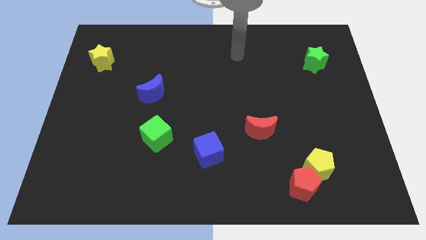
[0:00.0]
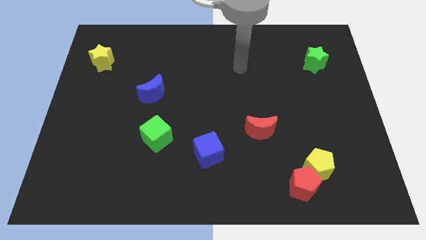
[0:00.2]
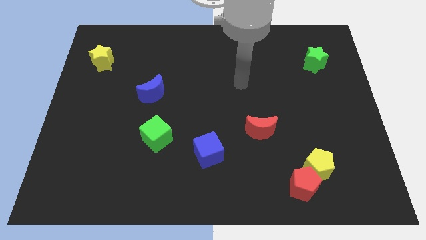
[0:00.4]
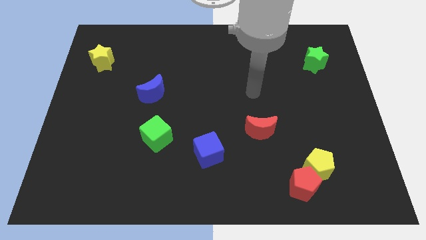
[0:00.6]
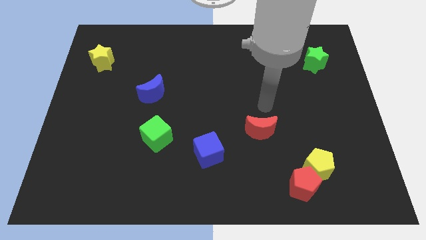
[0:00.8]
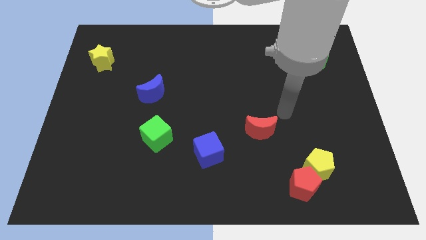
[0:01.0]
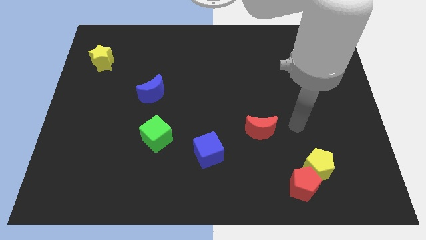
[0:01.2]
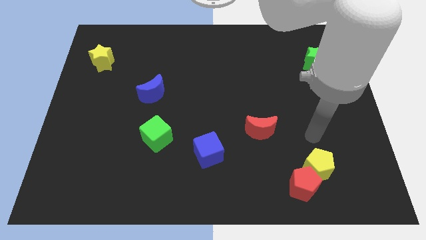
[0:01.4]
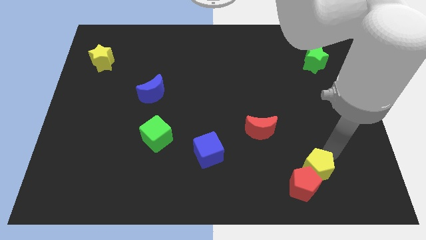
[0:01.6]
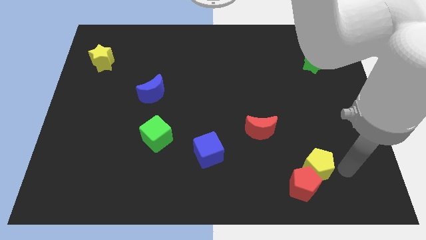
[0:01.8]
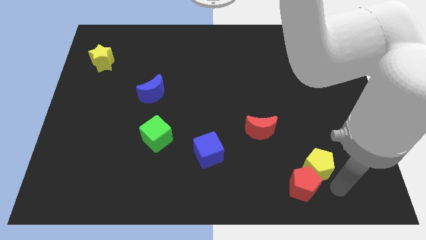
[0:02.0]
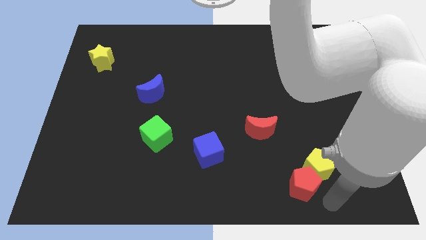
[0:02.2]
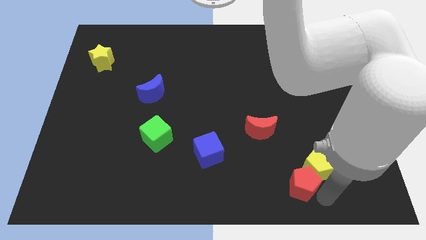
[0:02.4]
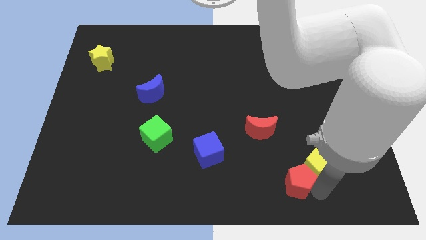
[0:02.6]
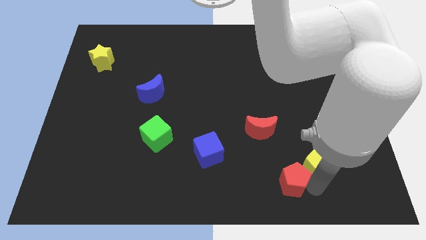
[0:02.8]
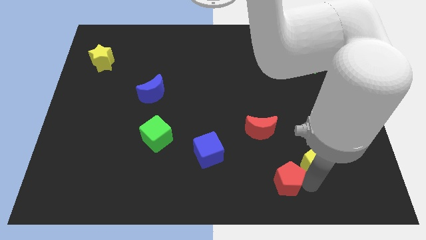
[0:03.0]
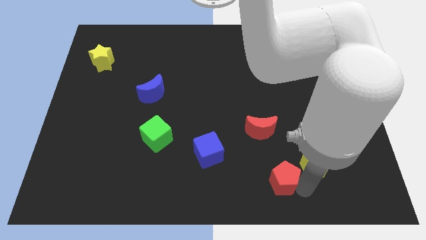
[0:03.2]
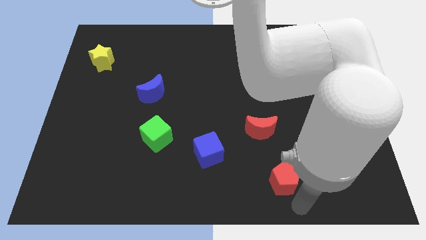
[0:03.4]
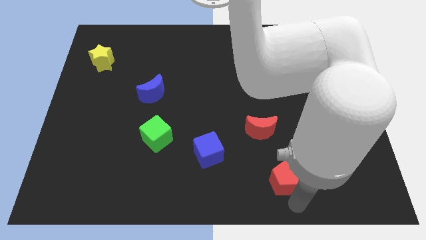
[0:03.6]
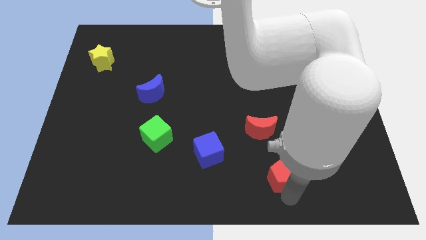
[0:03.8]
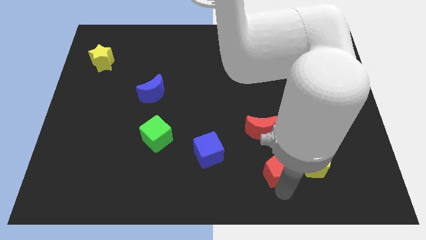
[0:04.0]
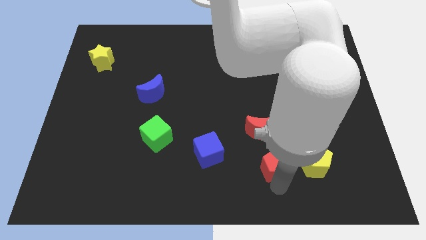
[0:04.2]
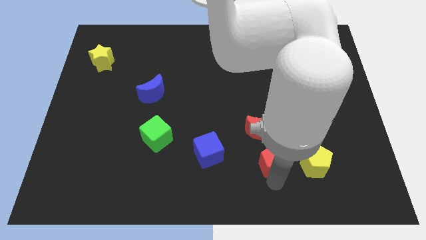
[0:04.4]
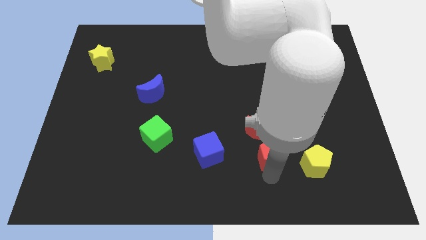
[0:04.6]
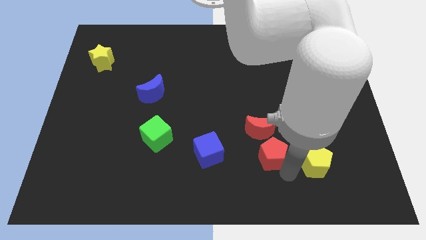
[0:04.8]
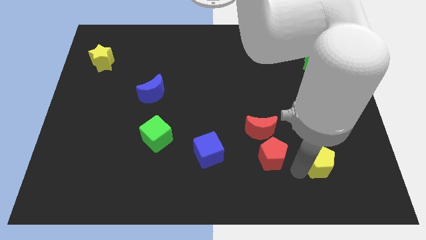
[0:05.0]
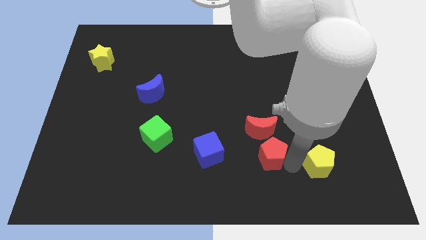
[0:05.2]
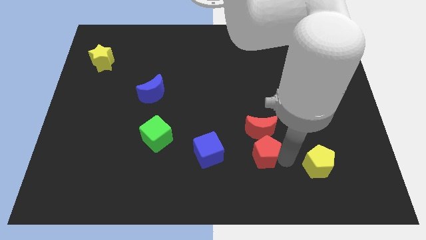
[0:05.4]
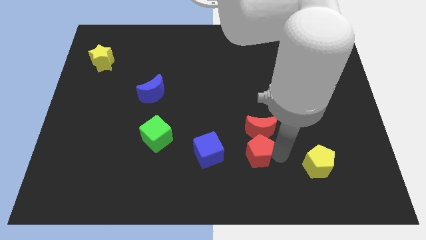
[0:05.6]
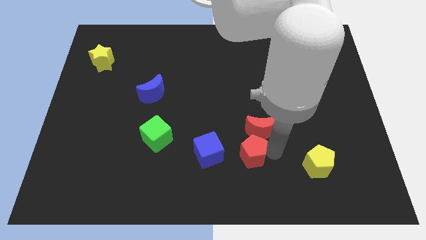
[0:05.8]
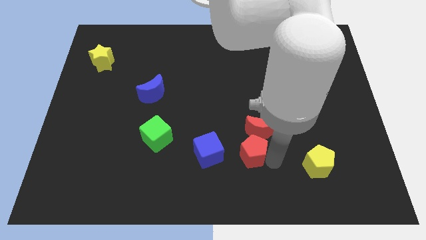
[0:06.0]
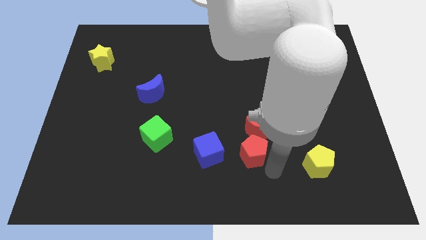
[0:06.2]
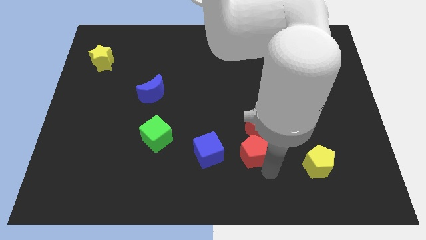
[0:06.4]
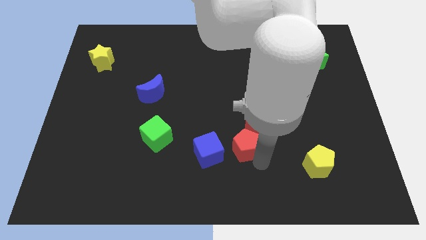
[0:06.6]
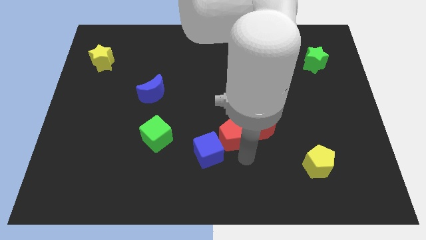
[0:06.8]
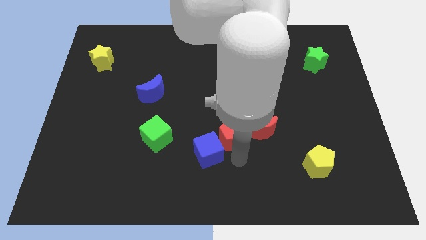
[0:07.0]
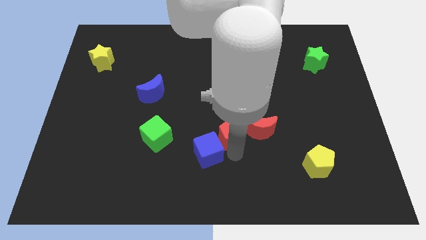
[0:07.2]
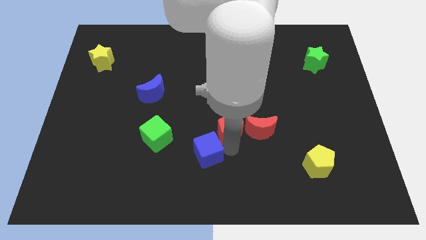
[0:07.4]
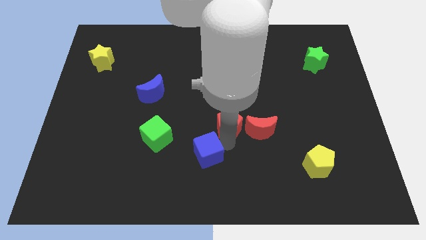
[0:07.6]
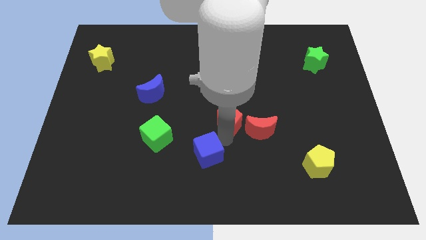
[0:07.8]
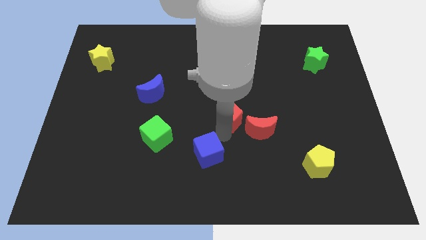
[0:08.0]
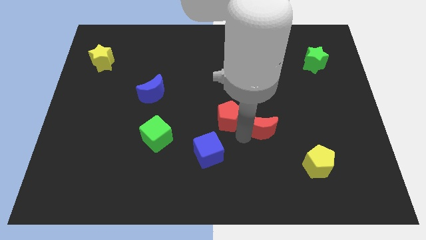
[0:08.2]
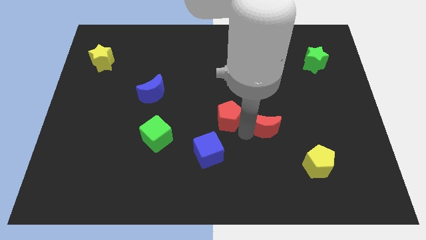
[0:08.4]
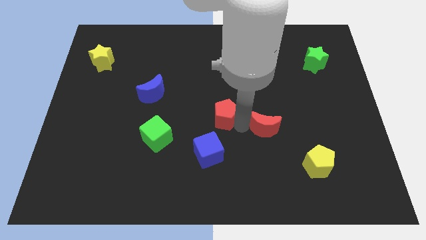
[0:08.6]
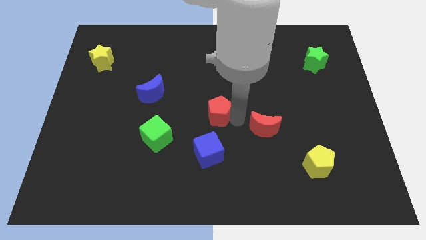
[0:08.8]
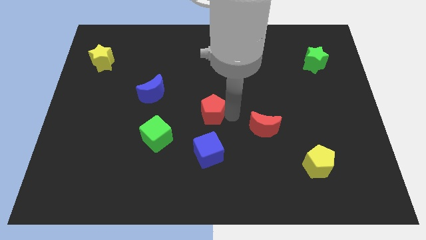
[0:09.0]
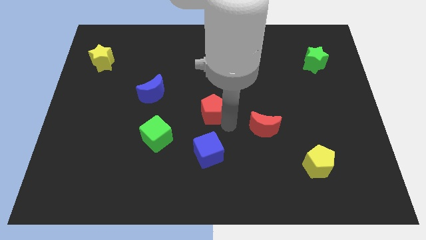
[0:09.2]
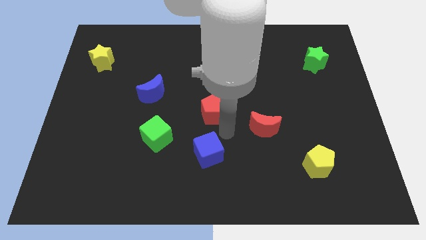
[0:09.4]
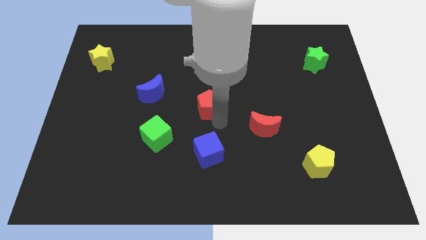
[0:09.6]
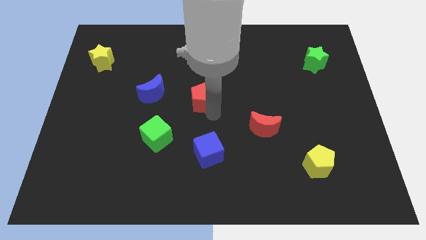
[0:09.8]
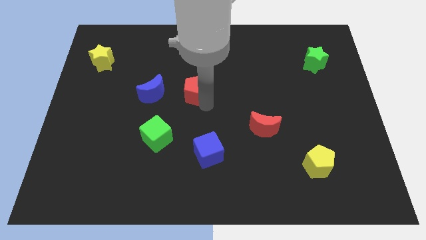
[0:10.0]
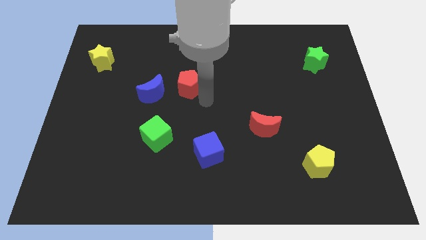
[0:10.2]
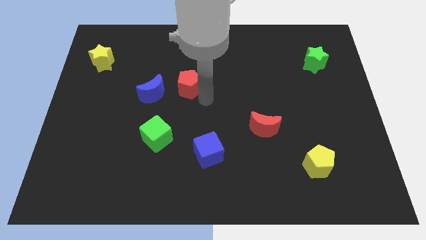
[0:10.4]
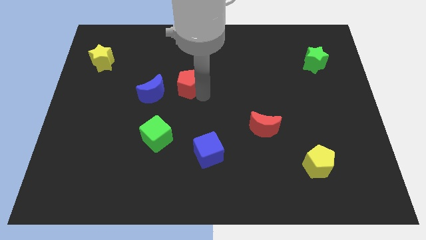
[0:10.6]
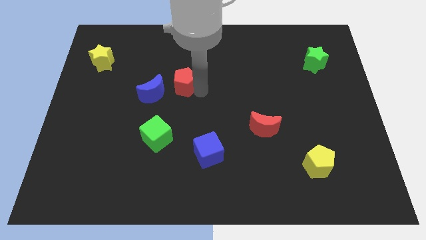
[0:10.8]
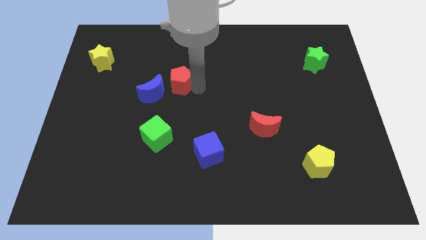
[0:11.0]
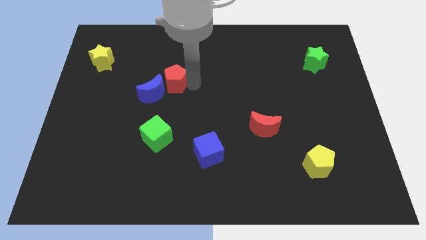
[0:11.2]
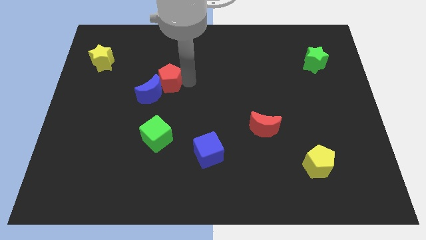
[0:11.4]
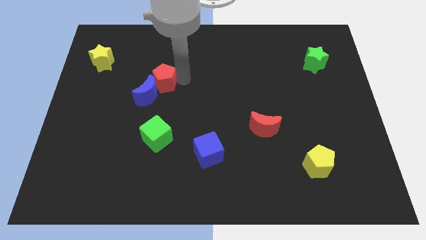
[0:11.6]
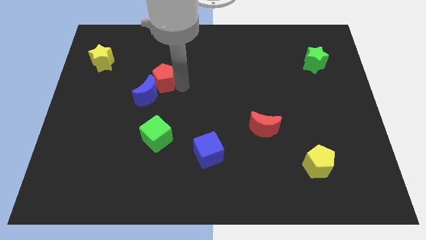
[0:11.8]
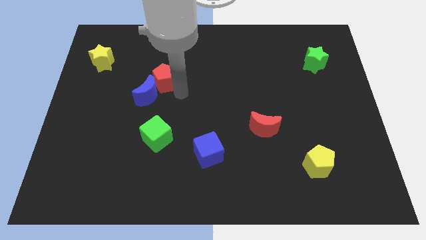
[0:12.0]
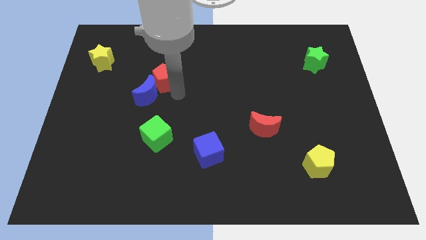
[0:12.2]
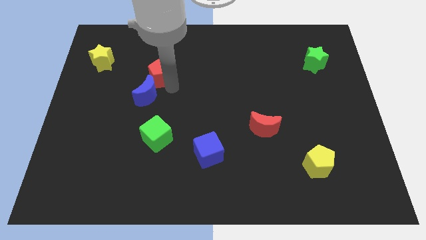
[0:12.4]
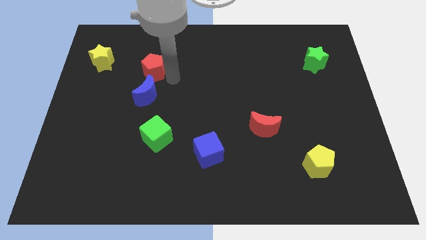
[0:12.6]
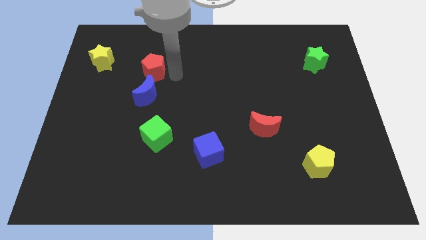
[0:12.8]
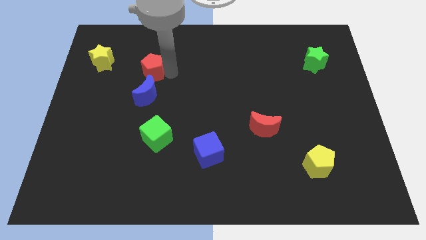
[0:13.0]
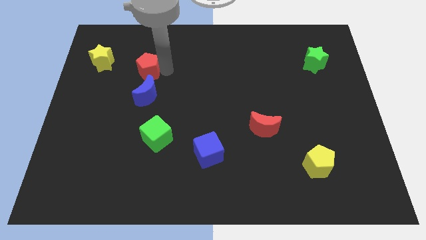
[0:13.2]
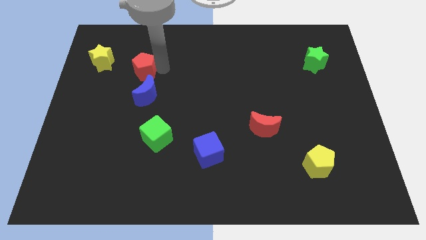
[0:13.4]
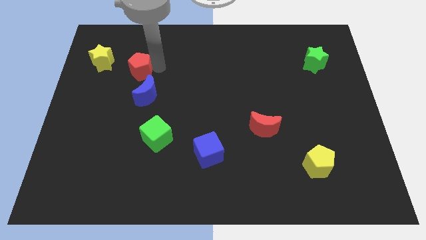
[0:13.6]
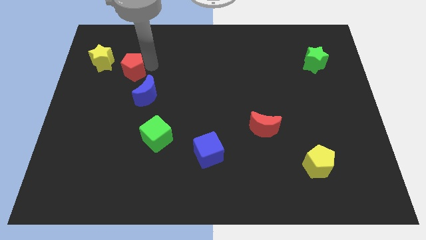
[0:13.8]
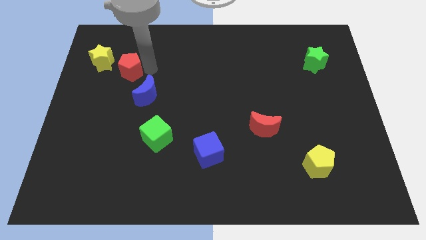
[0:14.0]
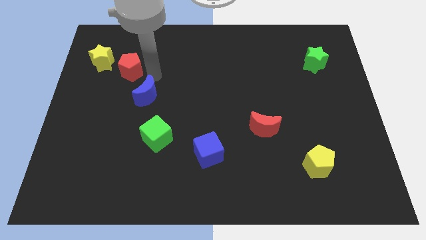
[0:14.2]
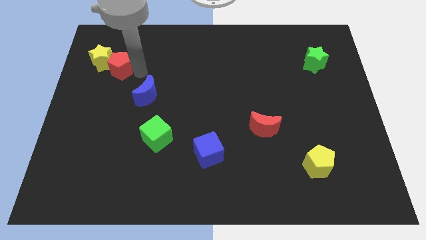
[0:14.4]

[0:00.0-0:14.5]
move the red pentagon close to the yellow star

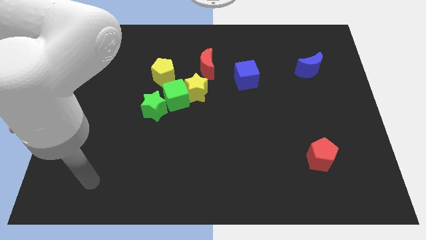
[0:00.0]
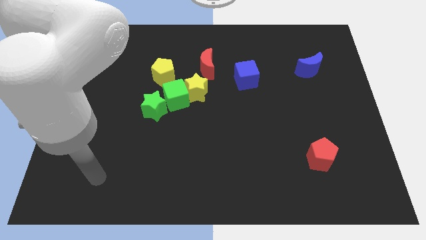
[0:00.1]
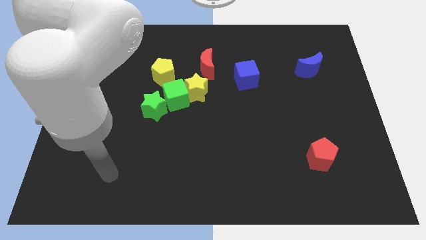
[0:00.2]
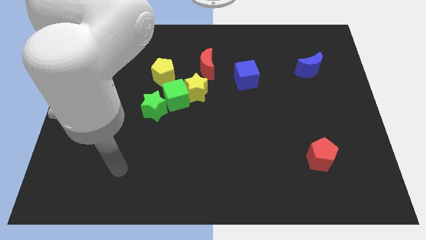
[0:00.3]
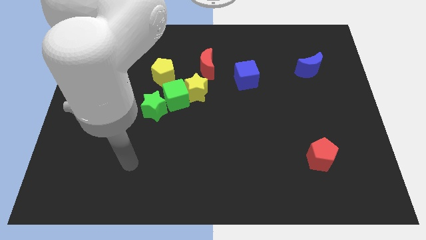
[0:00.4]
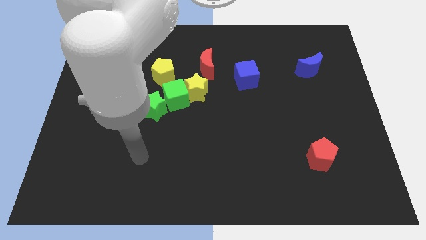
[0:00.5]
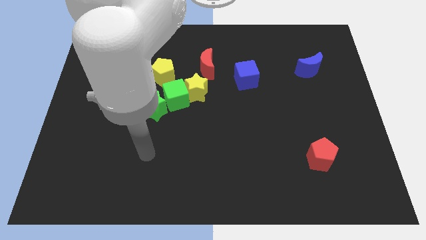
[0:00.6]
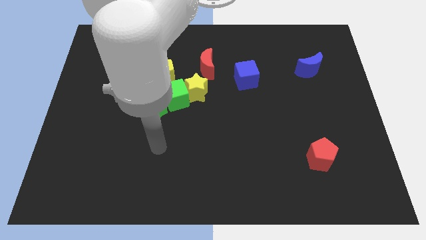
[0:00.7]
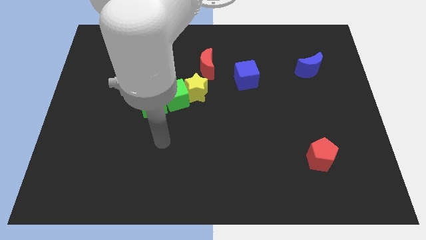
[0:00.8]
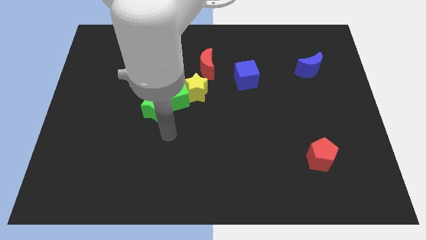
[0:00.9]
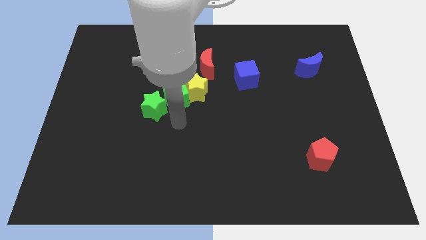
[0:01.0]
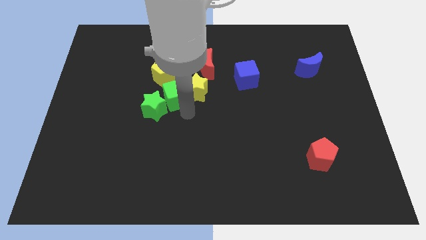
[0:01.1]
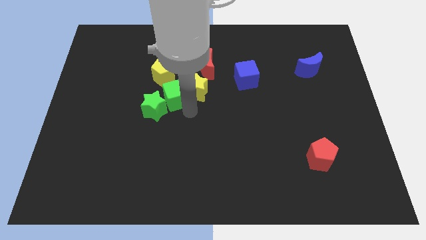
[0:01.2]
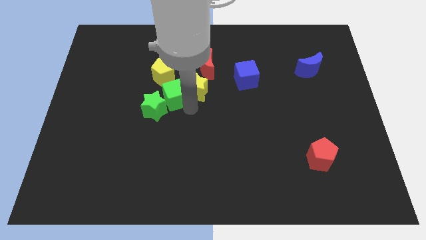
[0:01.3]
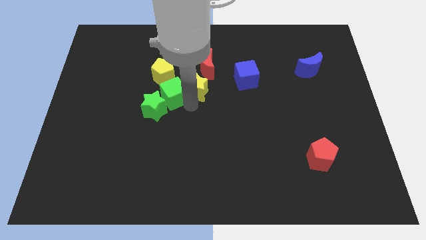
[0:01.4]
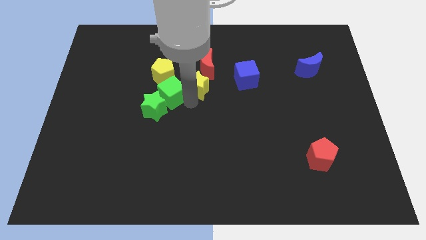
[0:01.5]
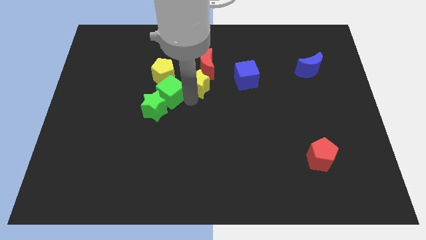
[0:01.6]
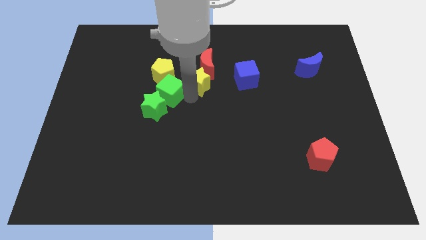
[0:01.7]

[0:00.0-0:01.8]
push the yellow star next to the red moon
